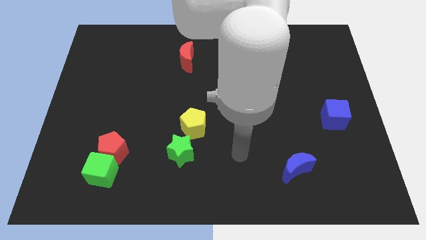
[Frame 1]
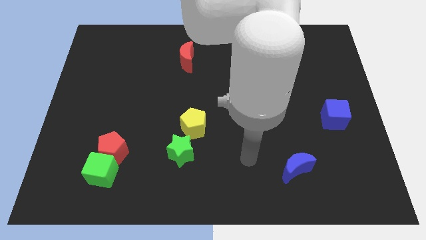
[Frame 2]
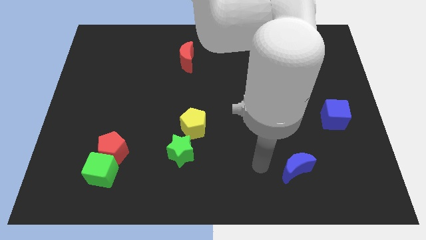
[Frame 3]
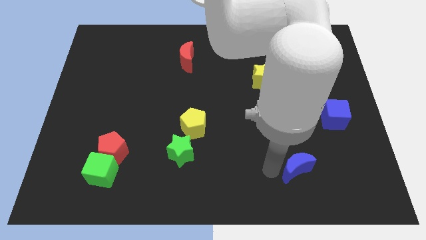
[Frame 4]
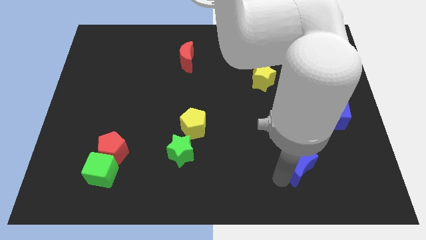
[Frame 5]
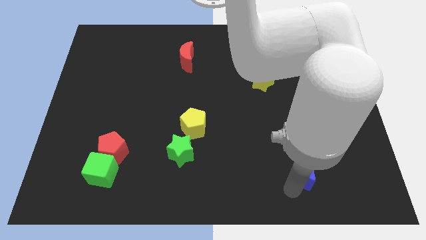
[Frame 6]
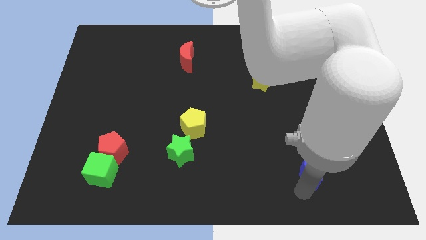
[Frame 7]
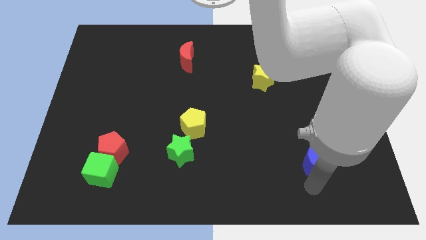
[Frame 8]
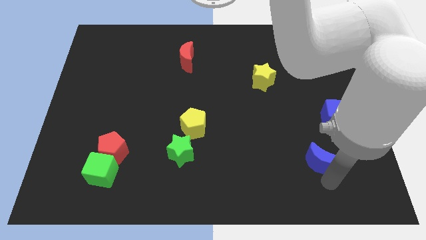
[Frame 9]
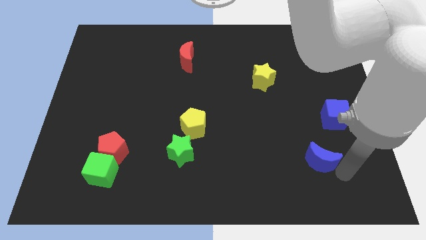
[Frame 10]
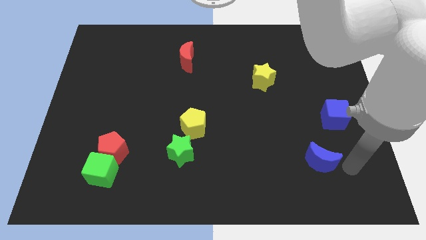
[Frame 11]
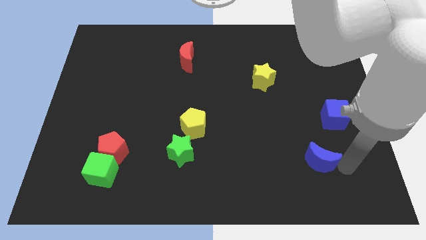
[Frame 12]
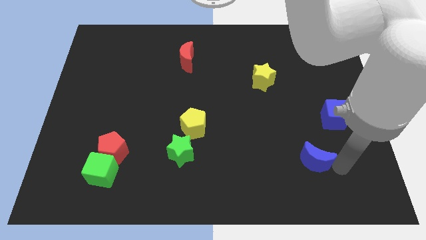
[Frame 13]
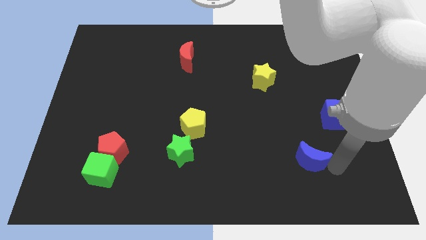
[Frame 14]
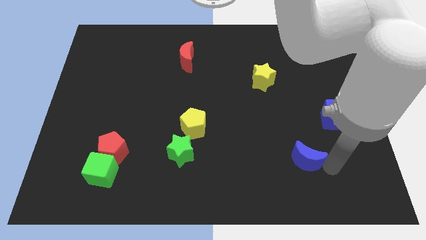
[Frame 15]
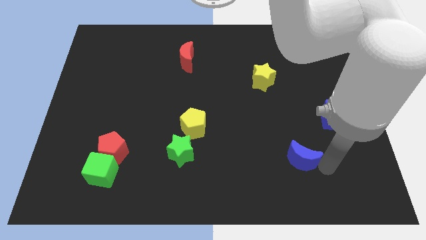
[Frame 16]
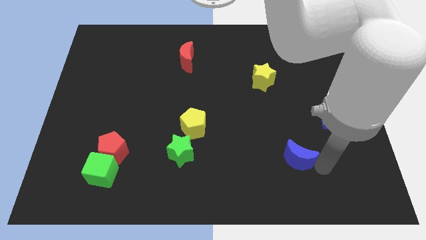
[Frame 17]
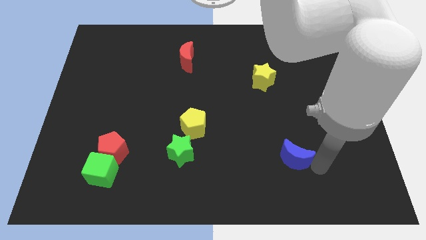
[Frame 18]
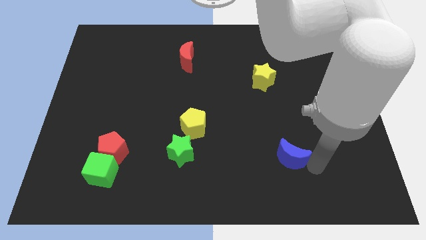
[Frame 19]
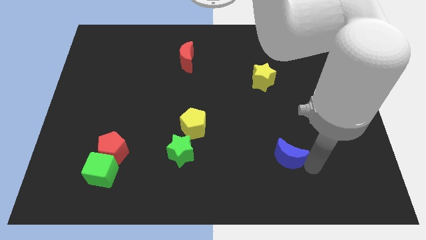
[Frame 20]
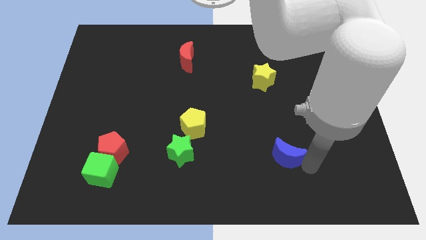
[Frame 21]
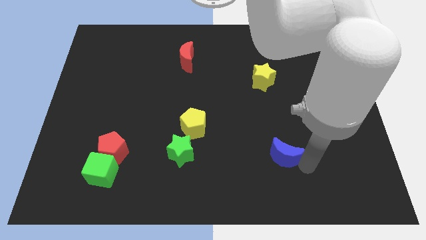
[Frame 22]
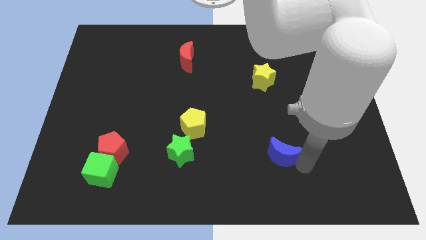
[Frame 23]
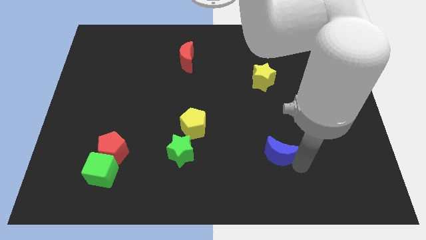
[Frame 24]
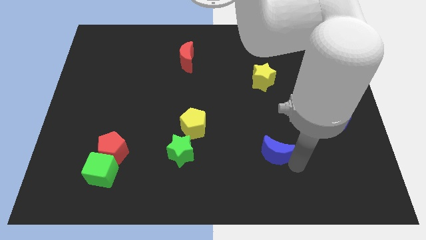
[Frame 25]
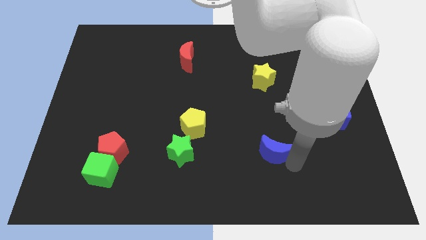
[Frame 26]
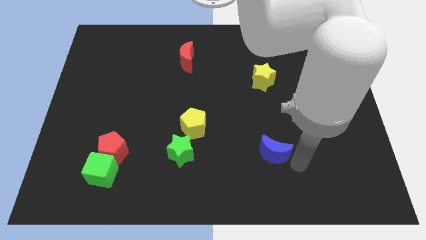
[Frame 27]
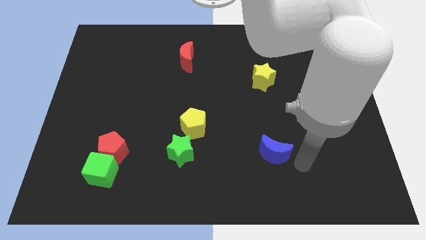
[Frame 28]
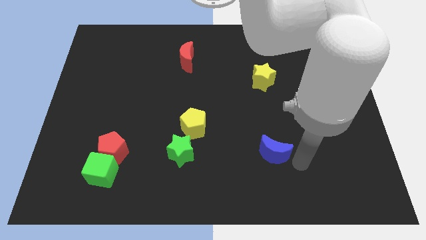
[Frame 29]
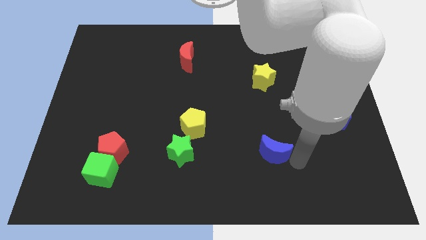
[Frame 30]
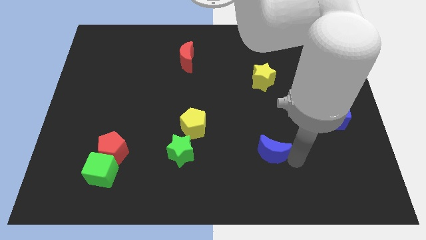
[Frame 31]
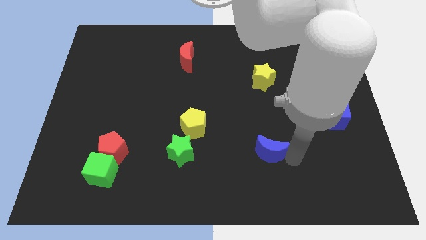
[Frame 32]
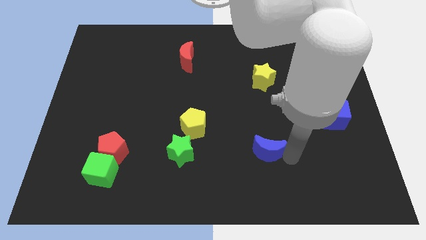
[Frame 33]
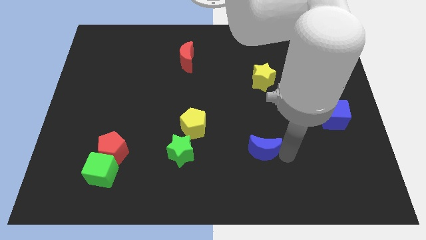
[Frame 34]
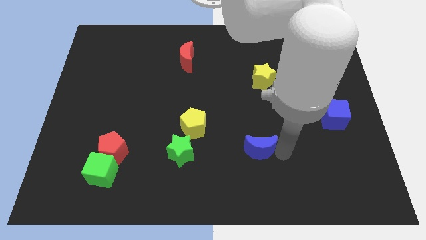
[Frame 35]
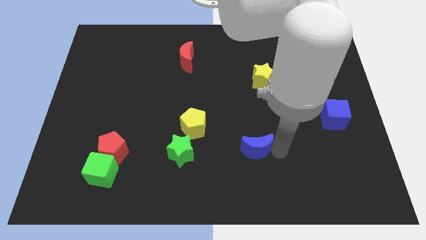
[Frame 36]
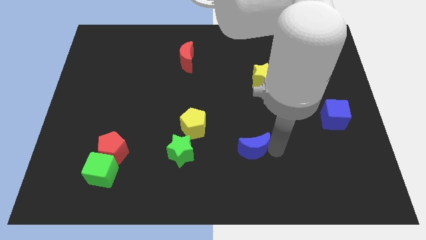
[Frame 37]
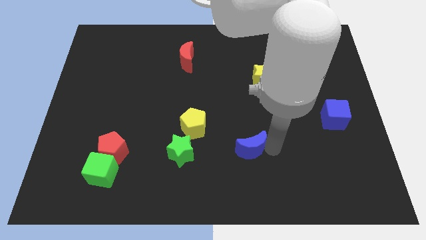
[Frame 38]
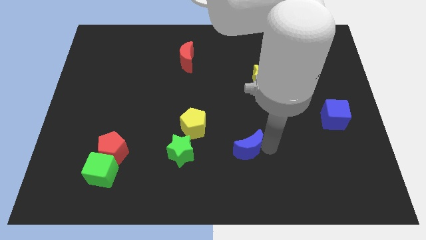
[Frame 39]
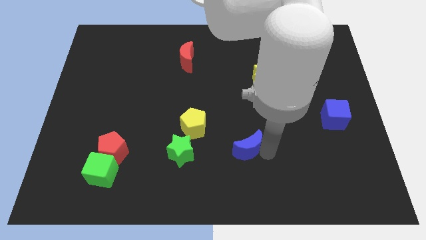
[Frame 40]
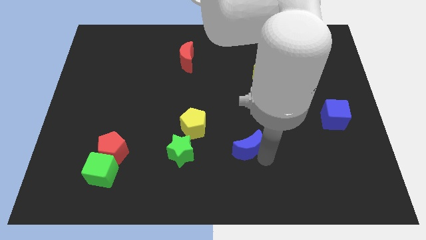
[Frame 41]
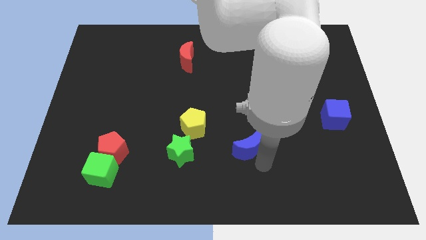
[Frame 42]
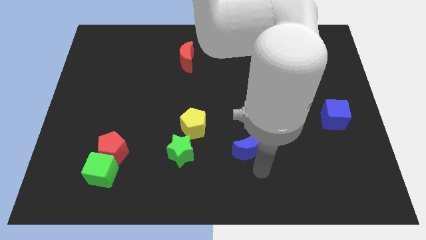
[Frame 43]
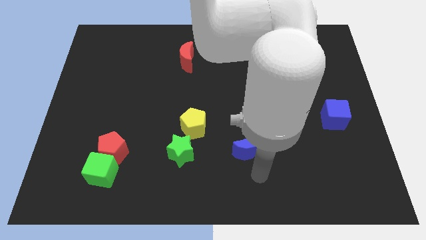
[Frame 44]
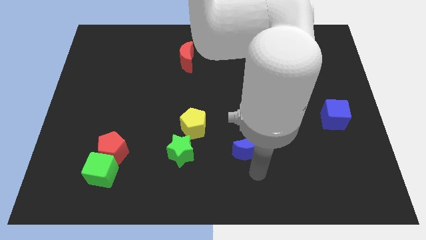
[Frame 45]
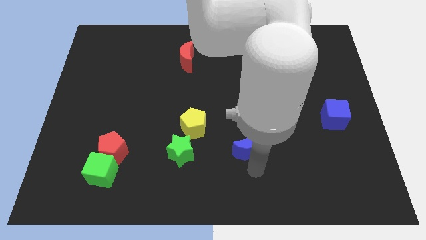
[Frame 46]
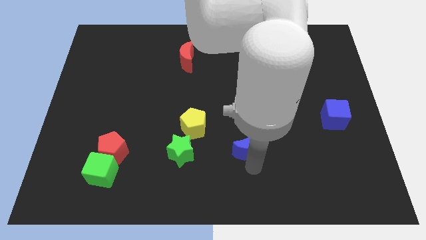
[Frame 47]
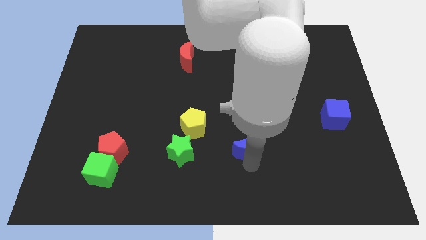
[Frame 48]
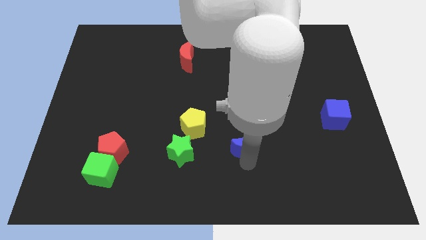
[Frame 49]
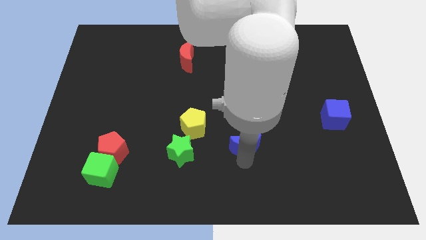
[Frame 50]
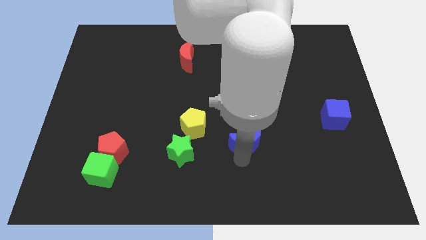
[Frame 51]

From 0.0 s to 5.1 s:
push the blue moon just right of the yellow pentagon

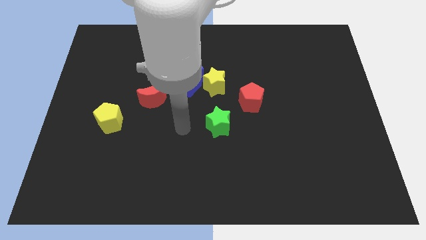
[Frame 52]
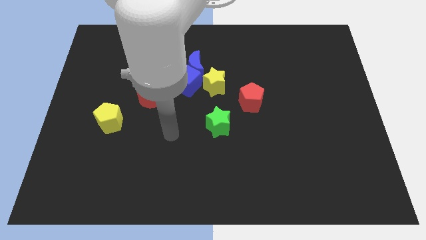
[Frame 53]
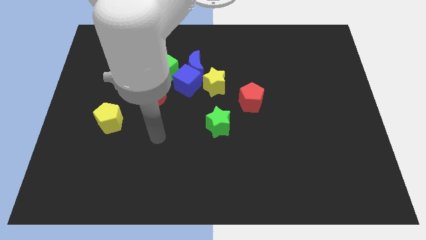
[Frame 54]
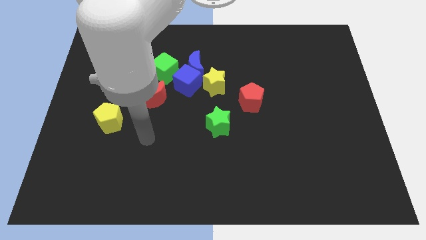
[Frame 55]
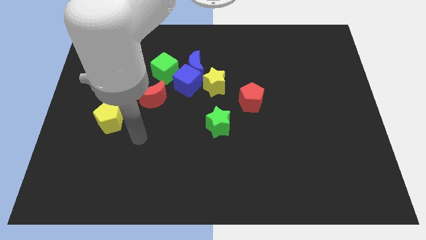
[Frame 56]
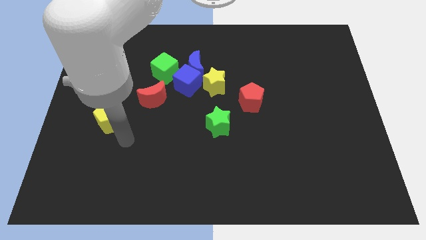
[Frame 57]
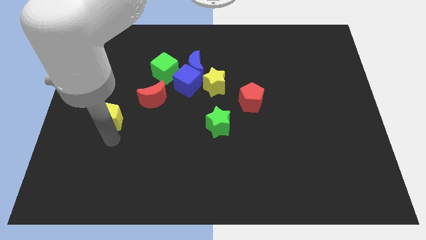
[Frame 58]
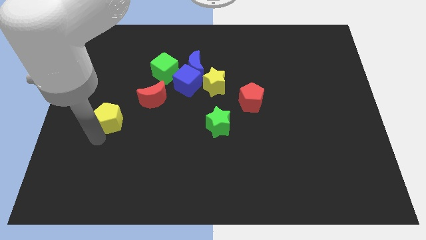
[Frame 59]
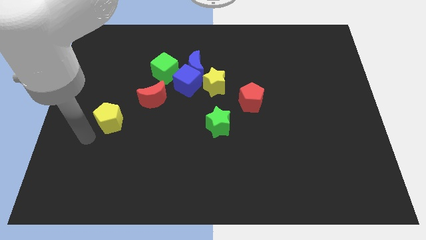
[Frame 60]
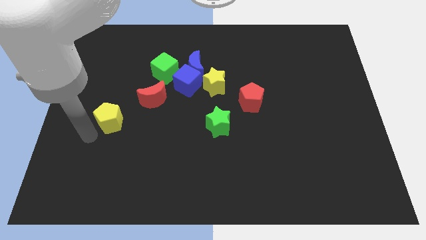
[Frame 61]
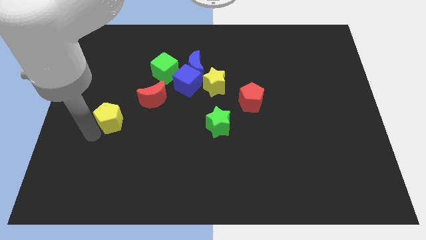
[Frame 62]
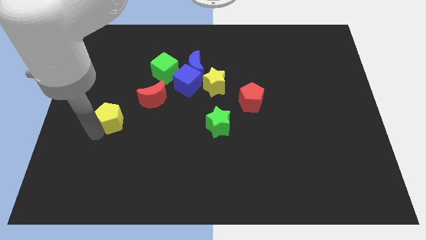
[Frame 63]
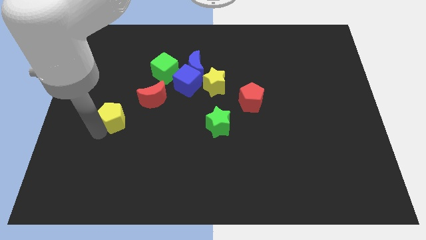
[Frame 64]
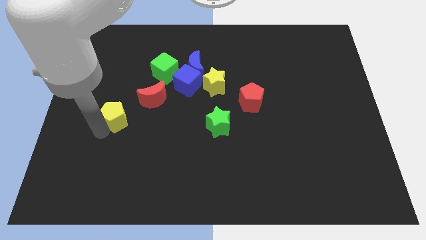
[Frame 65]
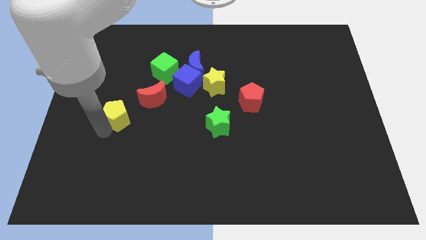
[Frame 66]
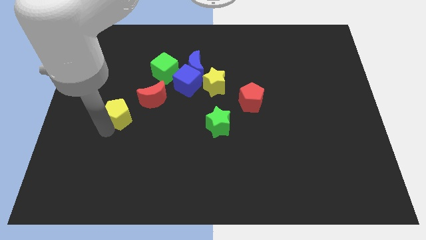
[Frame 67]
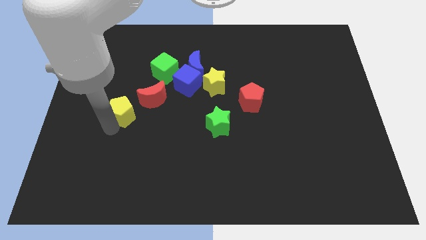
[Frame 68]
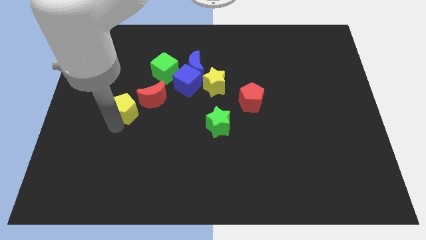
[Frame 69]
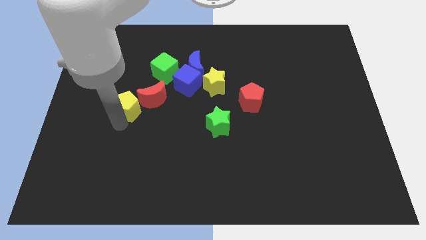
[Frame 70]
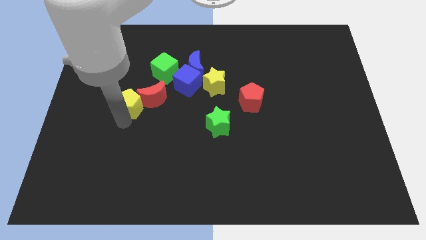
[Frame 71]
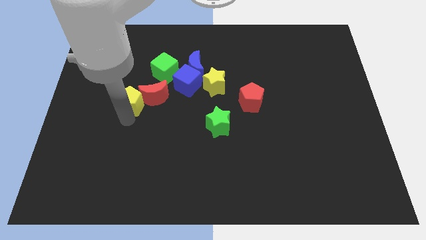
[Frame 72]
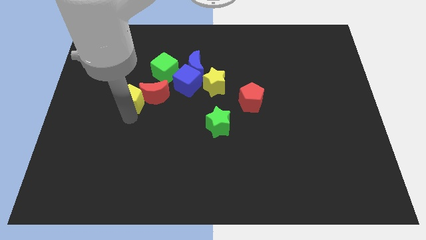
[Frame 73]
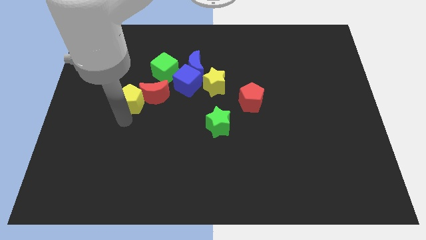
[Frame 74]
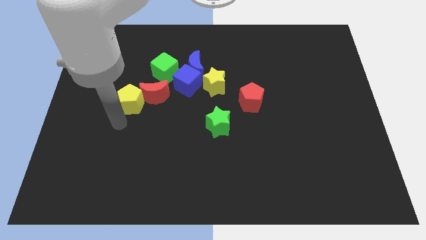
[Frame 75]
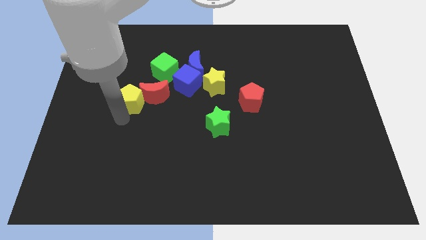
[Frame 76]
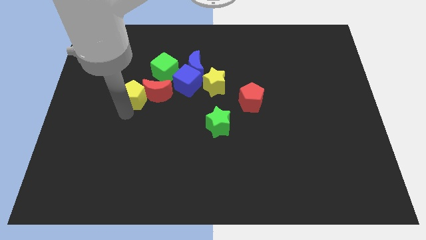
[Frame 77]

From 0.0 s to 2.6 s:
move the yellow pentagon to the left side of the blue cube
